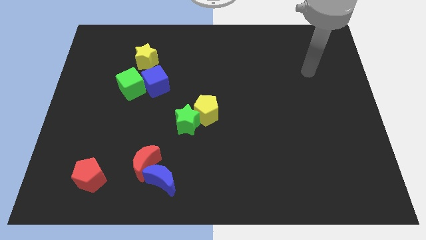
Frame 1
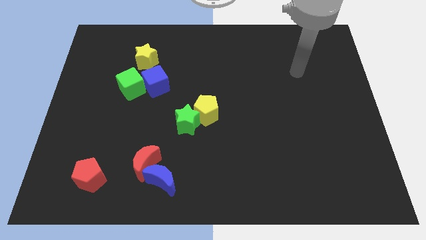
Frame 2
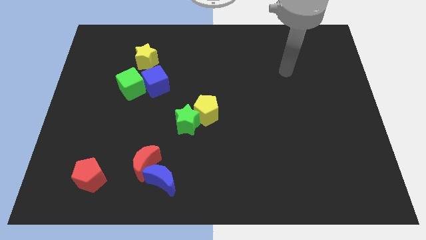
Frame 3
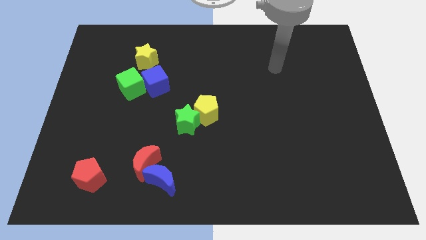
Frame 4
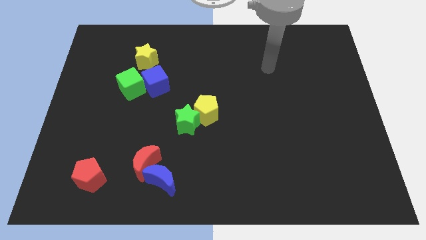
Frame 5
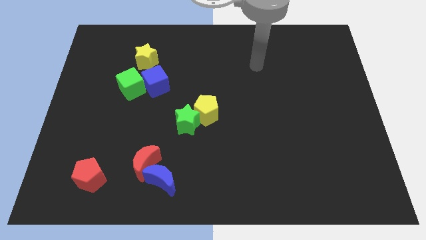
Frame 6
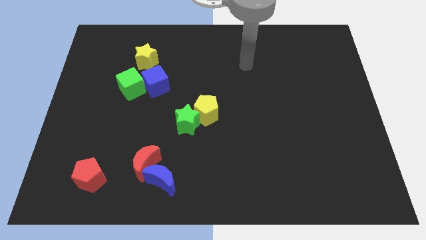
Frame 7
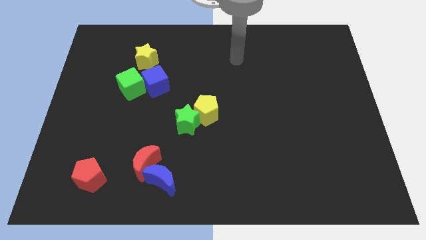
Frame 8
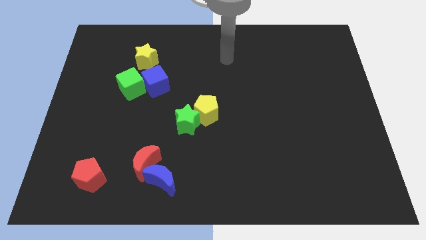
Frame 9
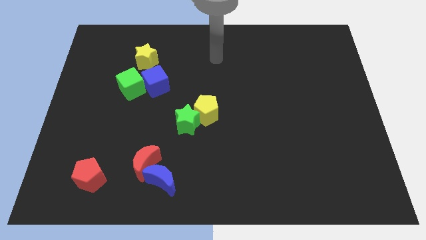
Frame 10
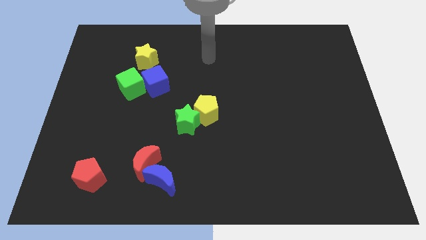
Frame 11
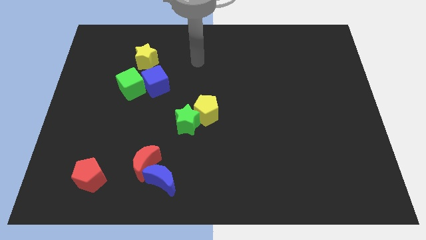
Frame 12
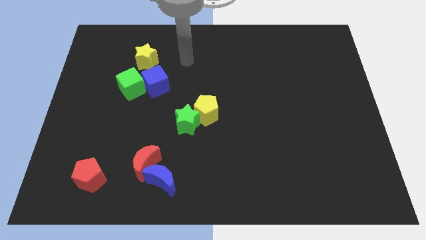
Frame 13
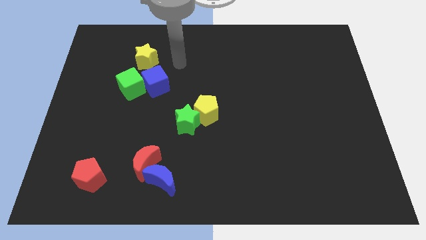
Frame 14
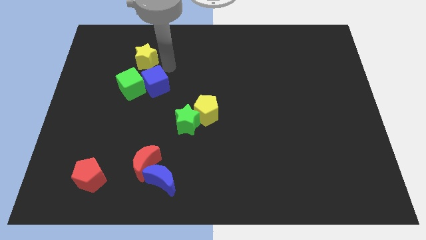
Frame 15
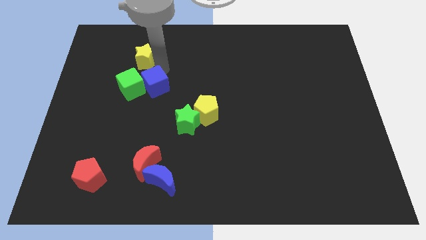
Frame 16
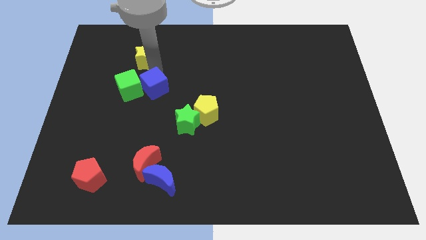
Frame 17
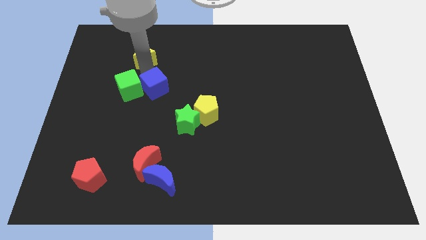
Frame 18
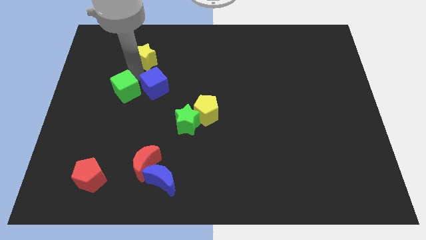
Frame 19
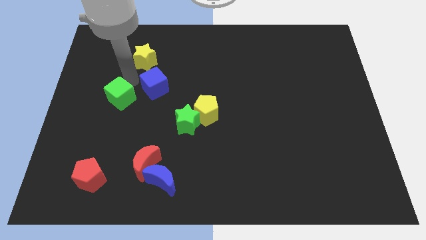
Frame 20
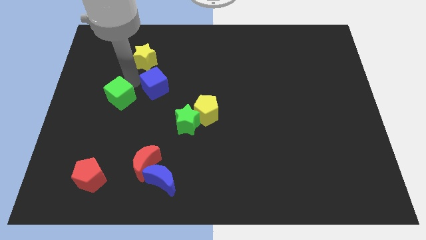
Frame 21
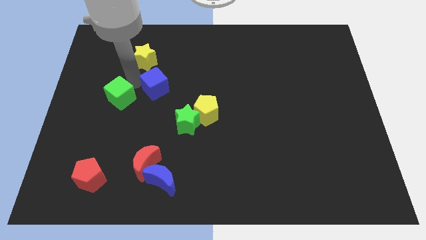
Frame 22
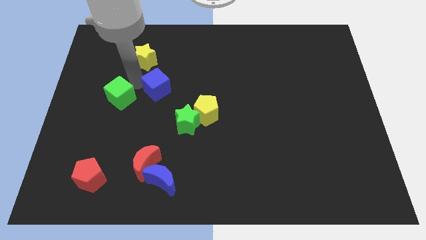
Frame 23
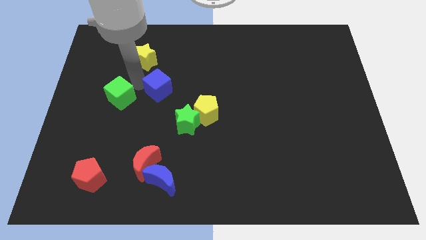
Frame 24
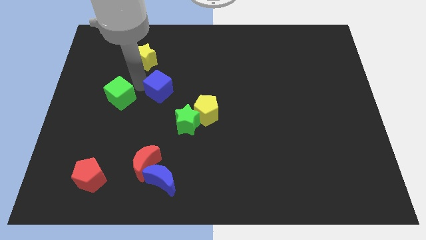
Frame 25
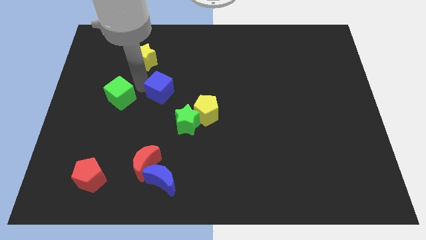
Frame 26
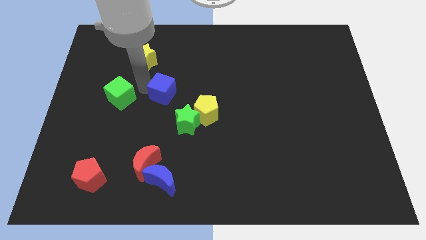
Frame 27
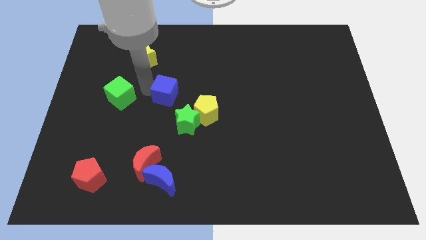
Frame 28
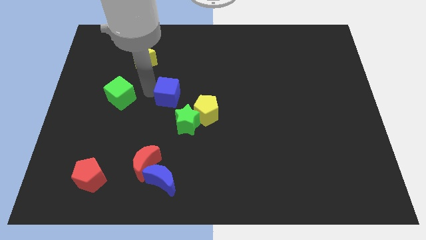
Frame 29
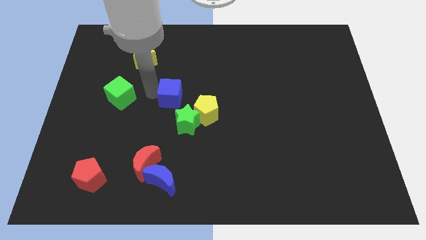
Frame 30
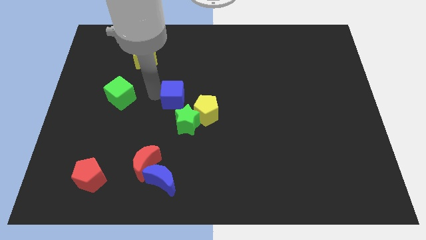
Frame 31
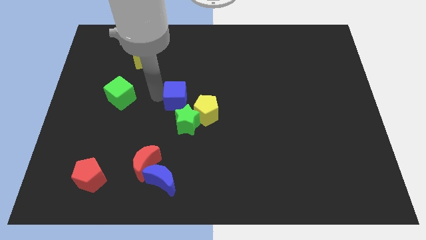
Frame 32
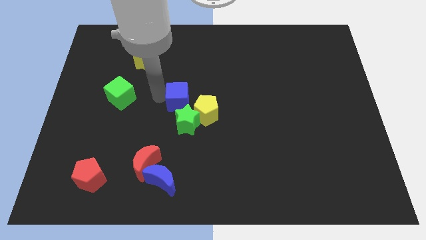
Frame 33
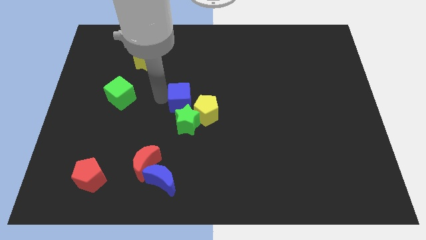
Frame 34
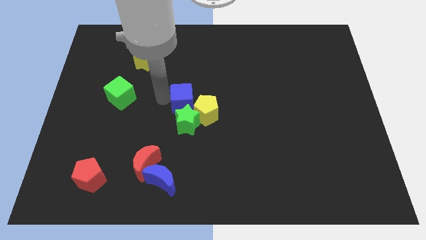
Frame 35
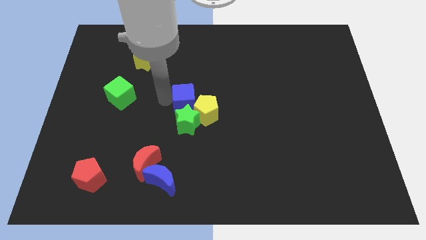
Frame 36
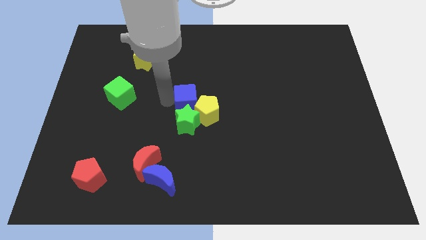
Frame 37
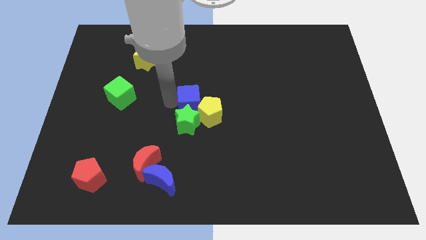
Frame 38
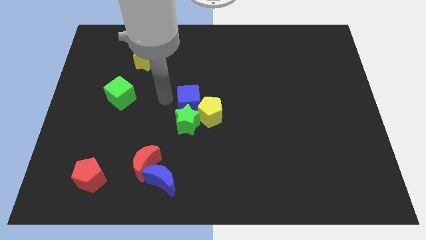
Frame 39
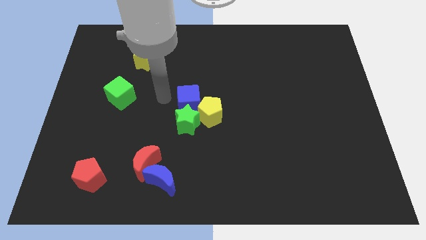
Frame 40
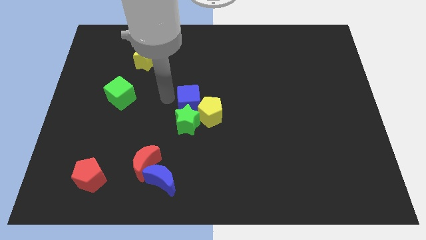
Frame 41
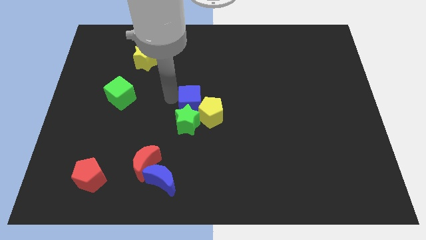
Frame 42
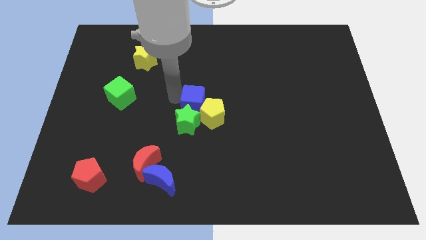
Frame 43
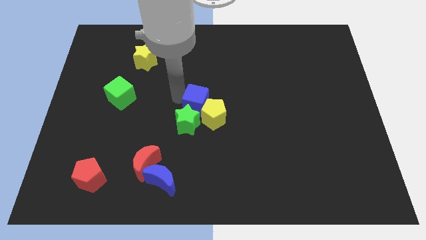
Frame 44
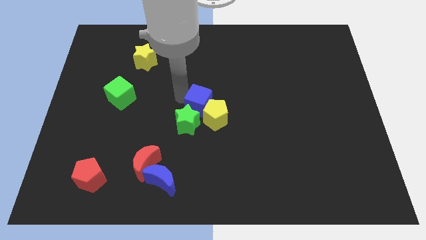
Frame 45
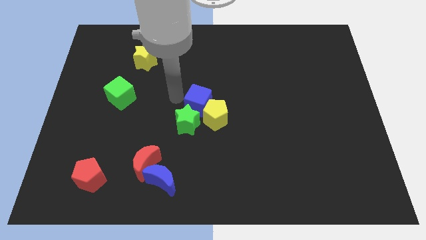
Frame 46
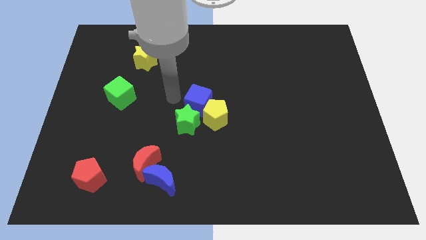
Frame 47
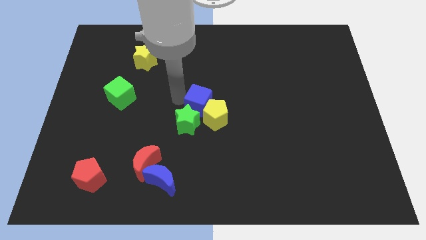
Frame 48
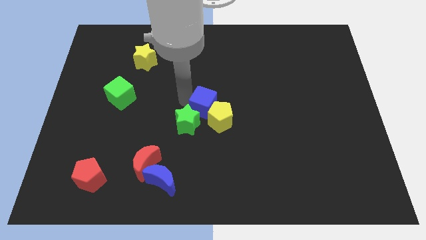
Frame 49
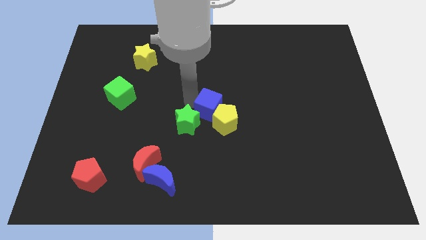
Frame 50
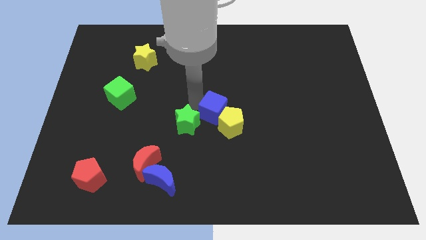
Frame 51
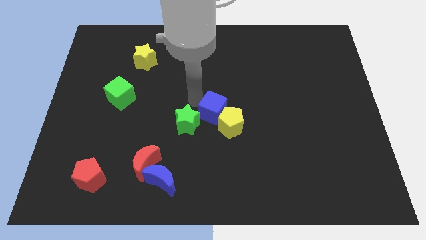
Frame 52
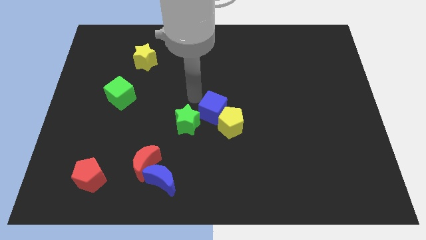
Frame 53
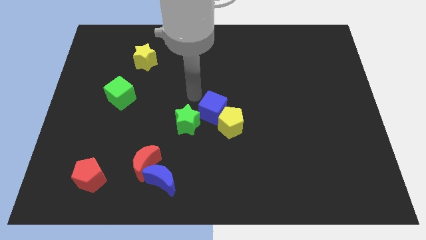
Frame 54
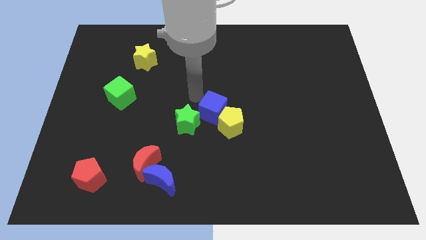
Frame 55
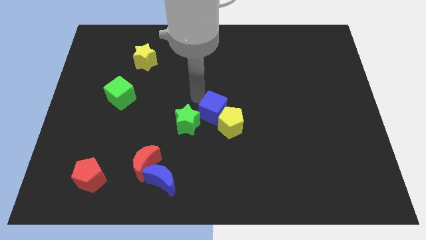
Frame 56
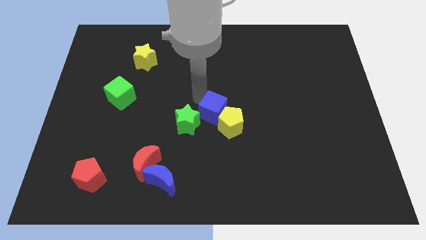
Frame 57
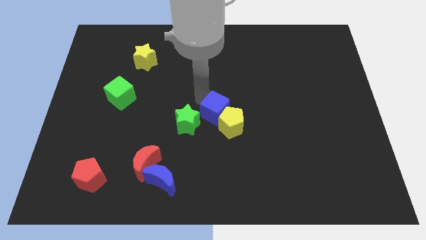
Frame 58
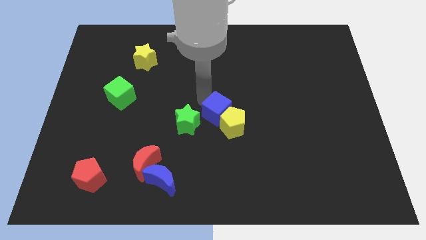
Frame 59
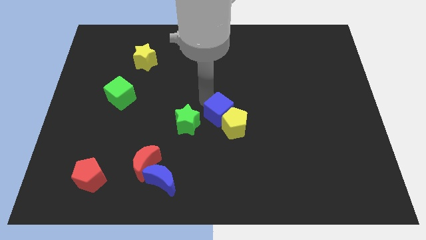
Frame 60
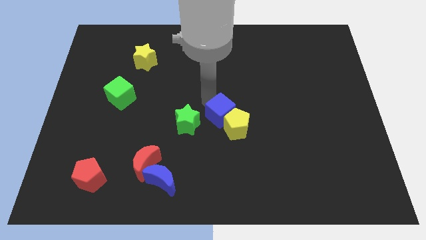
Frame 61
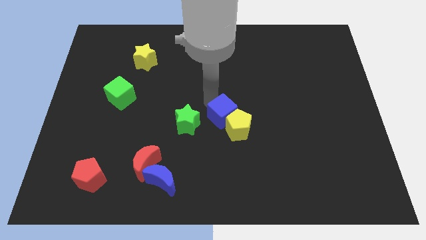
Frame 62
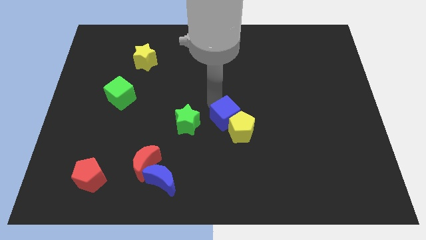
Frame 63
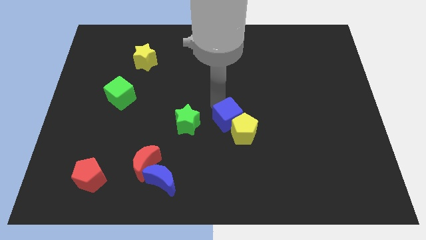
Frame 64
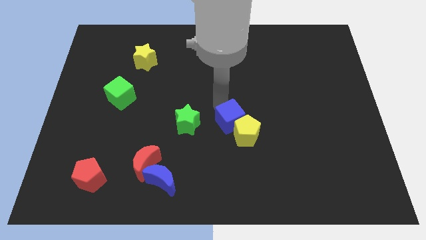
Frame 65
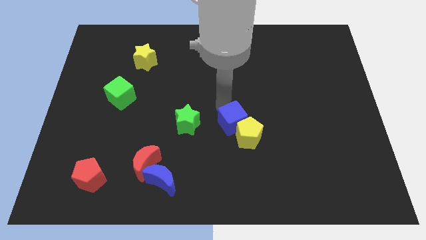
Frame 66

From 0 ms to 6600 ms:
push the blue cube downwards and to the right diagonally

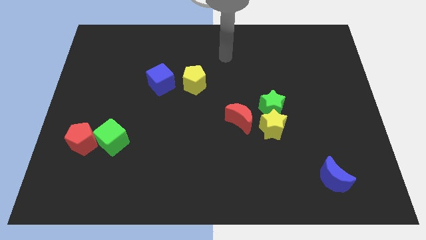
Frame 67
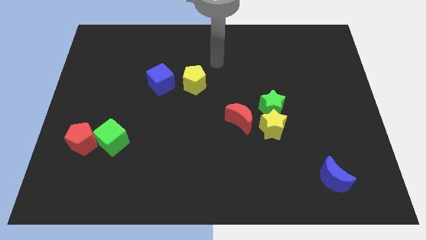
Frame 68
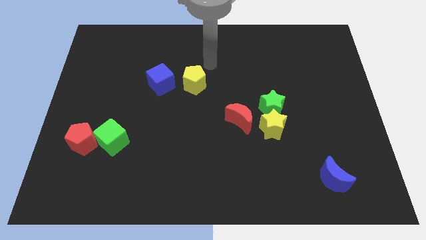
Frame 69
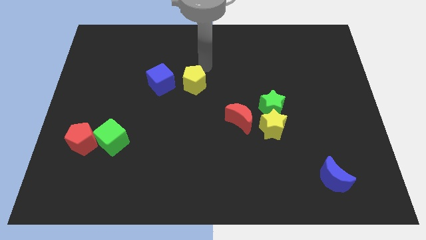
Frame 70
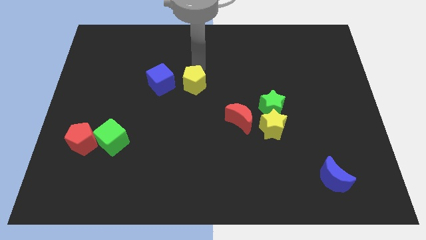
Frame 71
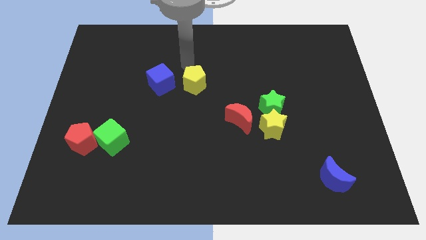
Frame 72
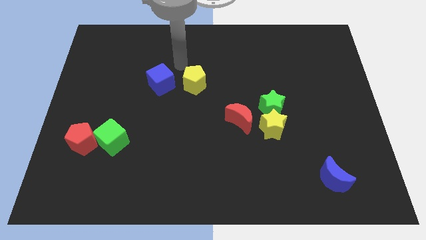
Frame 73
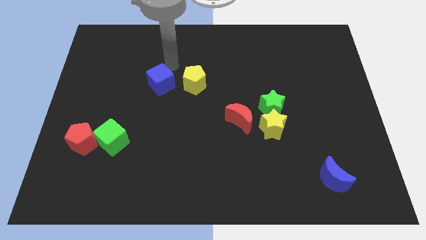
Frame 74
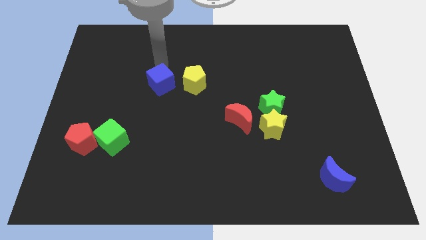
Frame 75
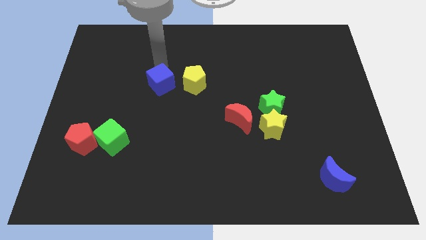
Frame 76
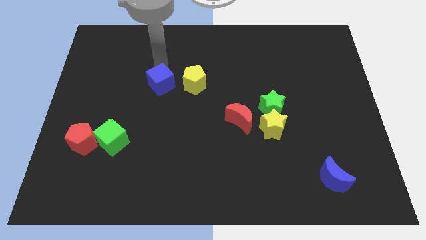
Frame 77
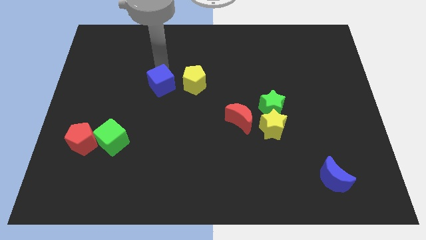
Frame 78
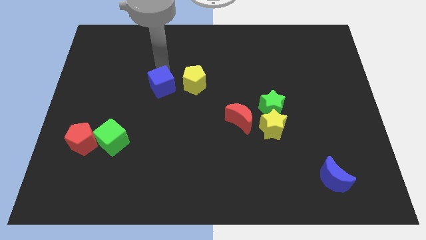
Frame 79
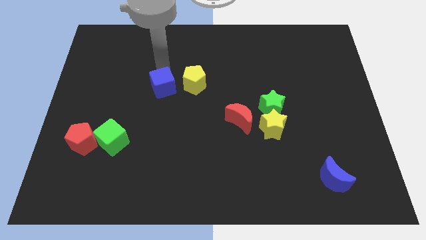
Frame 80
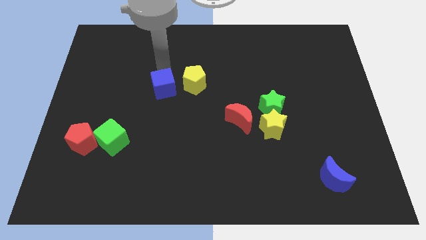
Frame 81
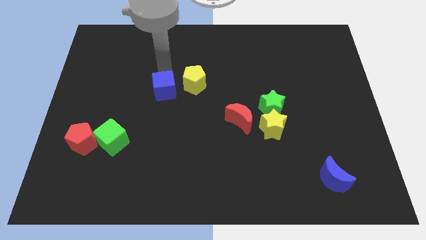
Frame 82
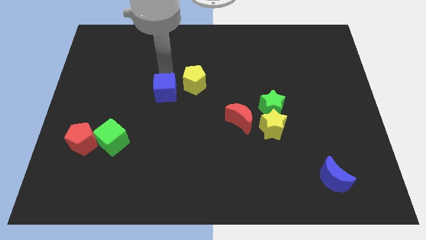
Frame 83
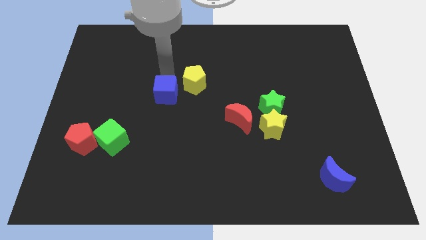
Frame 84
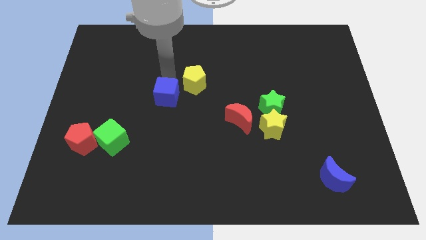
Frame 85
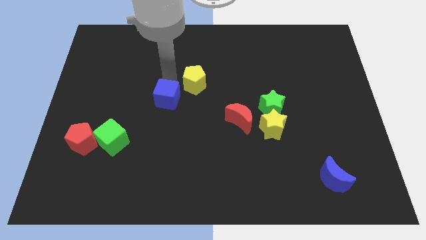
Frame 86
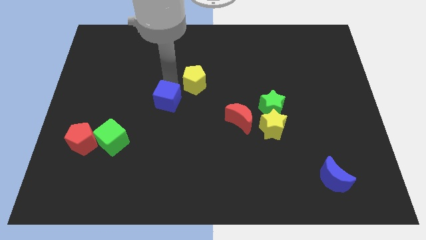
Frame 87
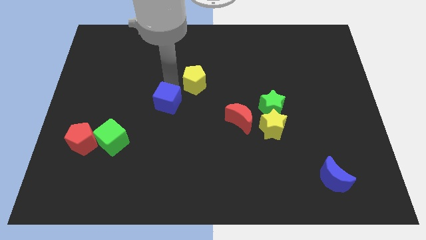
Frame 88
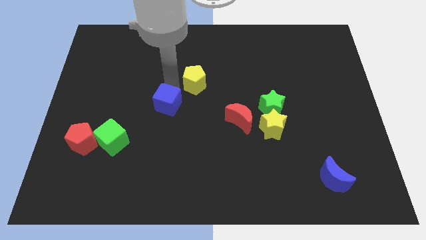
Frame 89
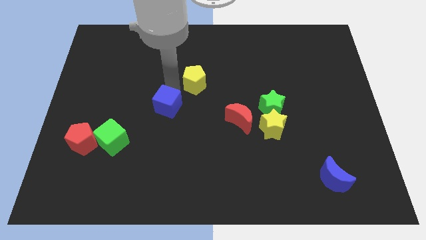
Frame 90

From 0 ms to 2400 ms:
slightly move the blue cube downwards
